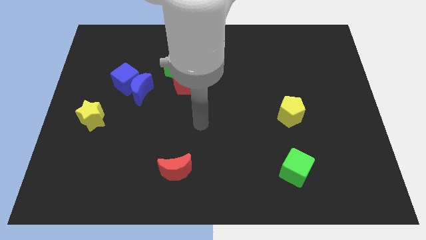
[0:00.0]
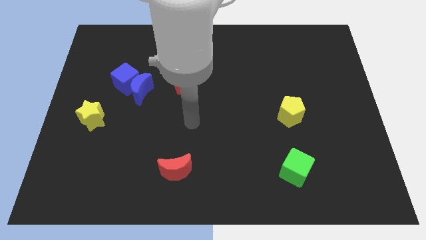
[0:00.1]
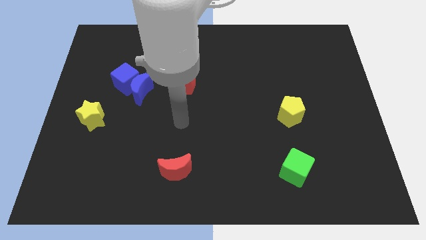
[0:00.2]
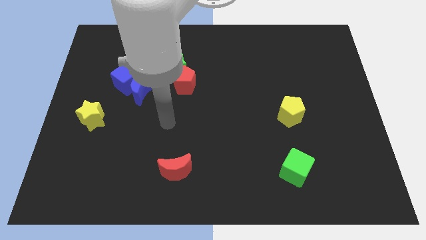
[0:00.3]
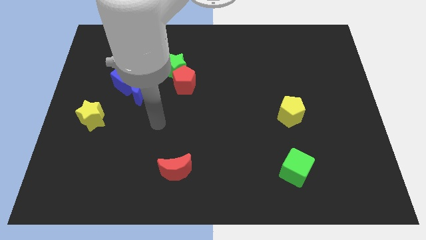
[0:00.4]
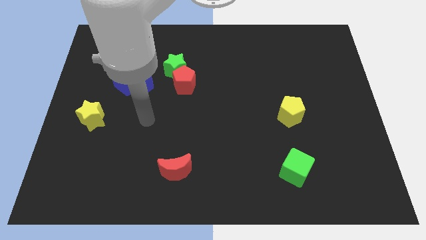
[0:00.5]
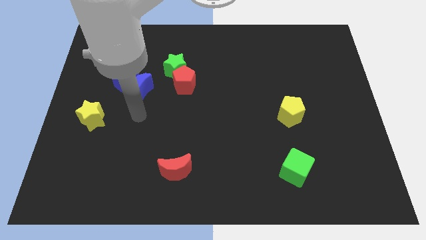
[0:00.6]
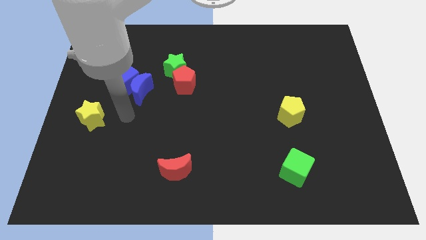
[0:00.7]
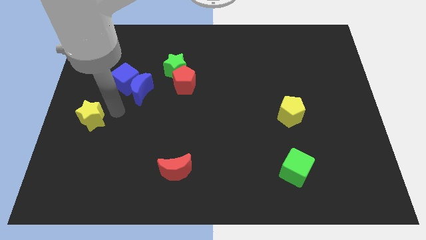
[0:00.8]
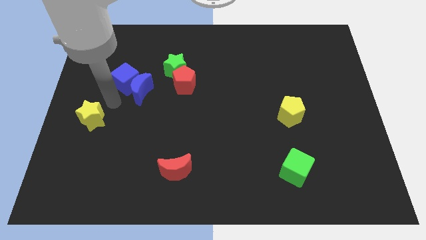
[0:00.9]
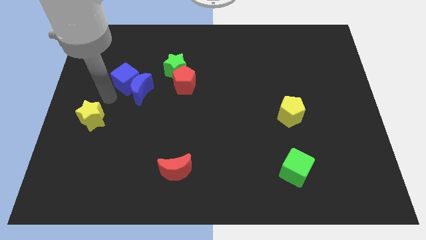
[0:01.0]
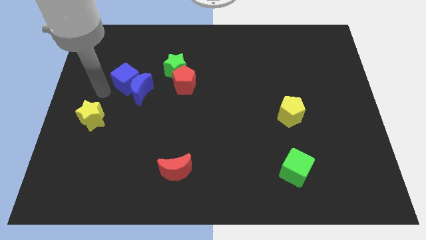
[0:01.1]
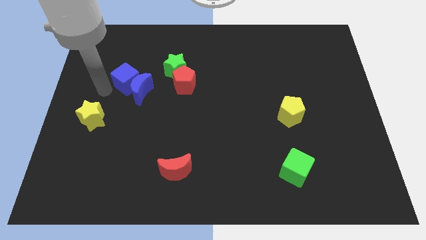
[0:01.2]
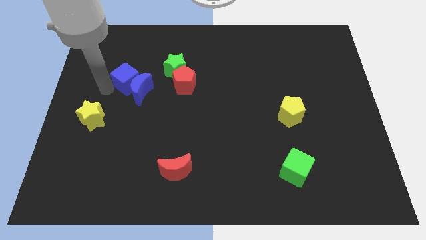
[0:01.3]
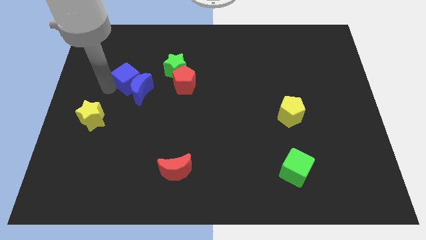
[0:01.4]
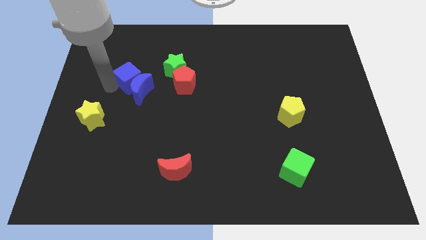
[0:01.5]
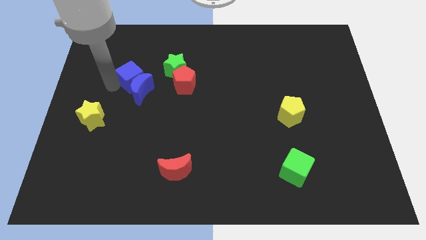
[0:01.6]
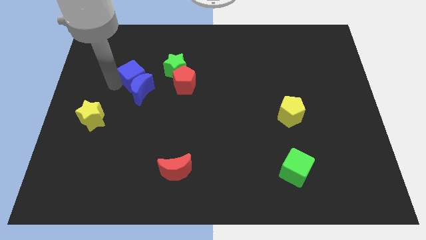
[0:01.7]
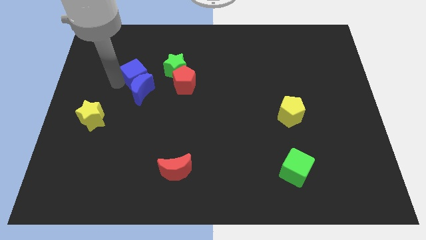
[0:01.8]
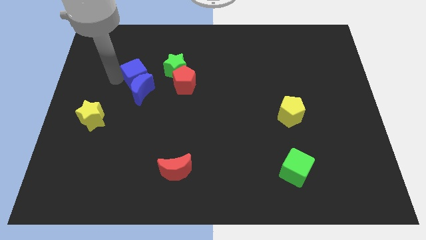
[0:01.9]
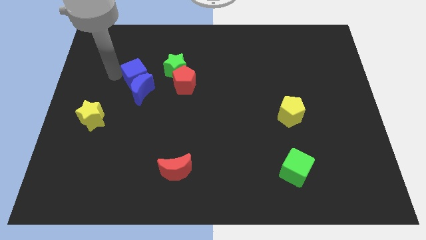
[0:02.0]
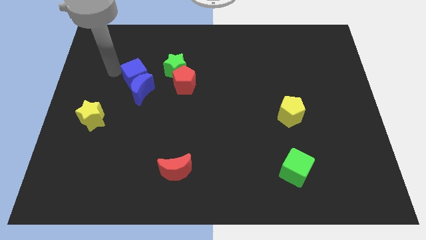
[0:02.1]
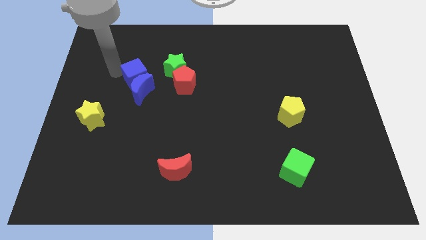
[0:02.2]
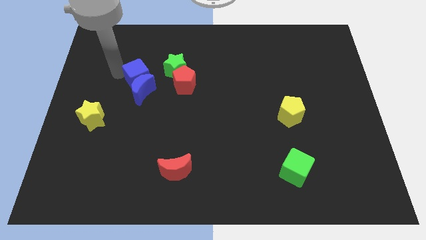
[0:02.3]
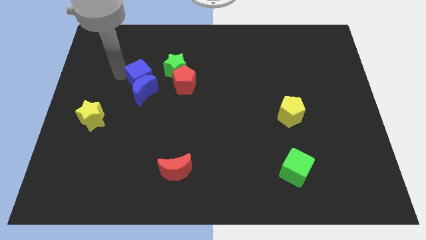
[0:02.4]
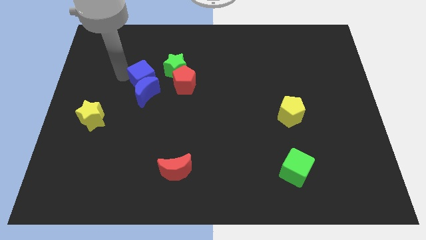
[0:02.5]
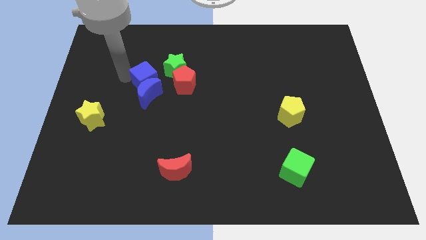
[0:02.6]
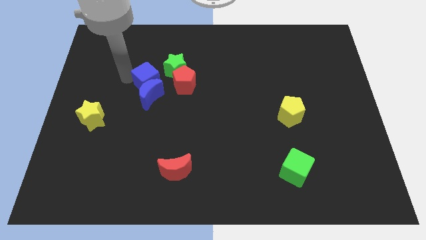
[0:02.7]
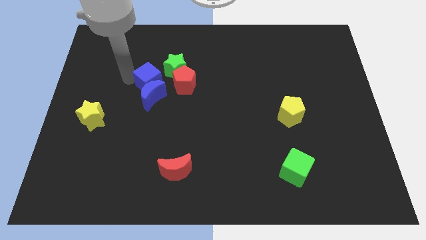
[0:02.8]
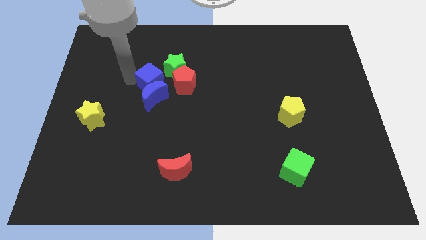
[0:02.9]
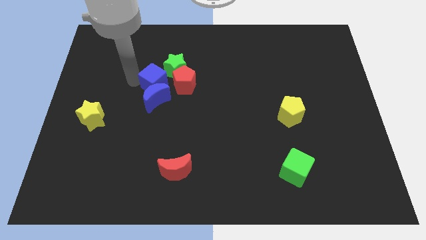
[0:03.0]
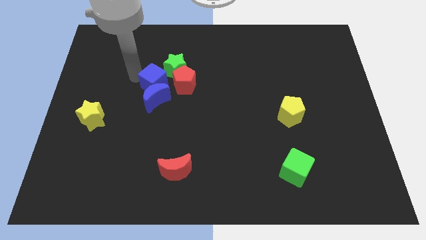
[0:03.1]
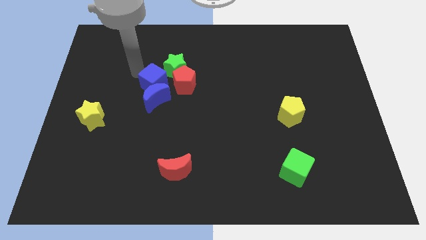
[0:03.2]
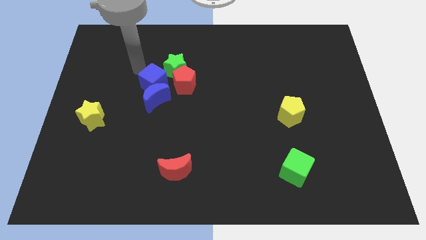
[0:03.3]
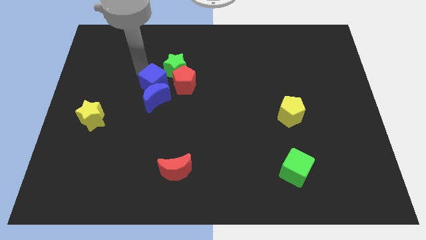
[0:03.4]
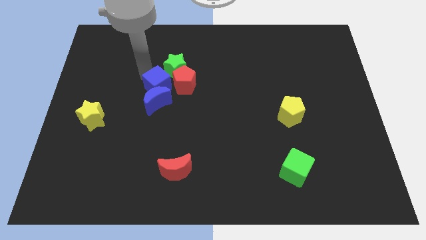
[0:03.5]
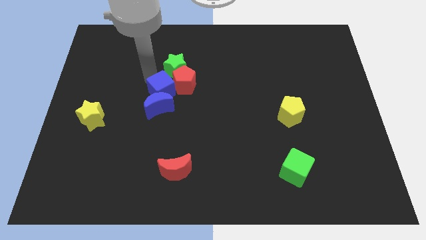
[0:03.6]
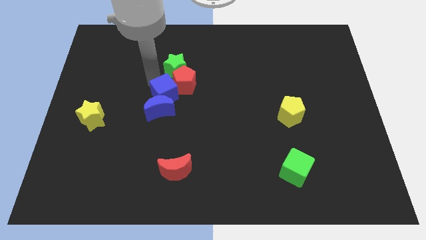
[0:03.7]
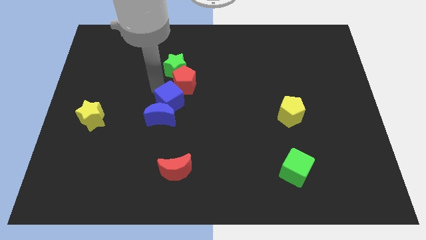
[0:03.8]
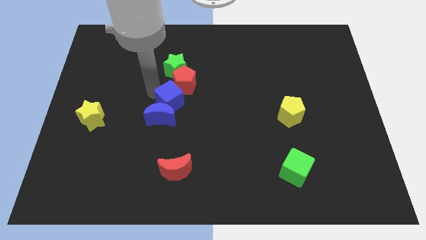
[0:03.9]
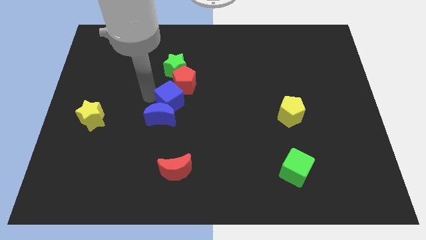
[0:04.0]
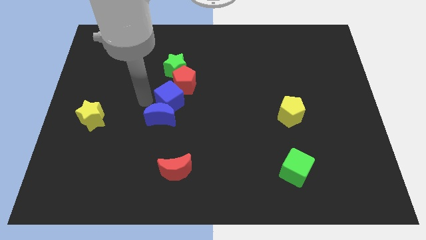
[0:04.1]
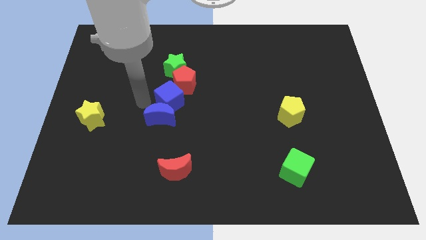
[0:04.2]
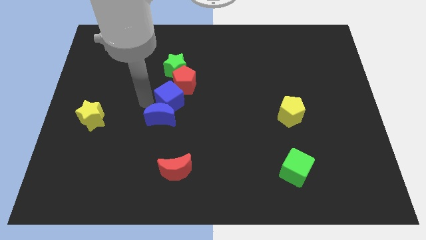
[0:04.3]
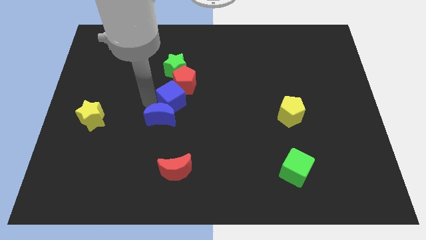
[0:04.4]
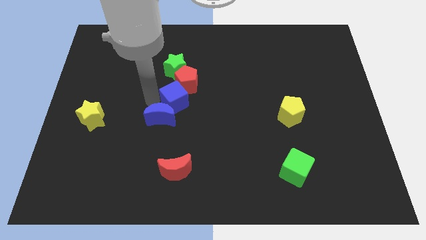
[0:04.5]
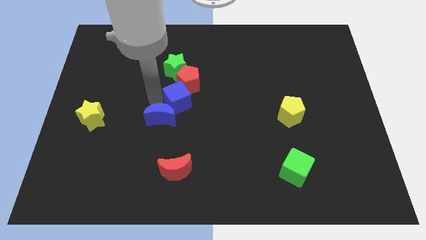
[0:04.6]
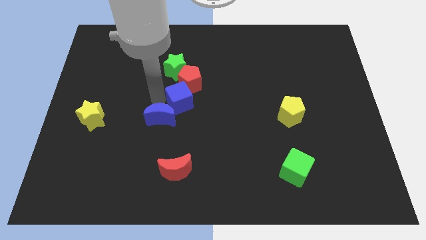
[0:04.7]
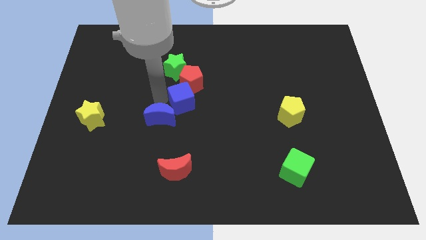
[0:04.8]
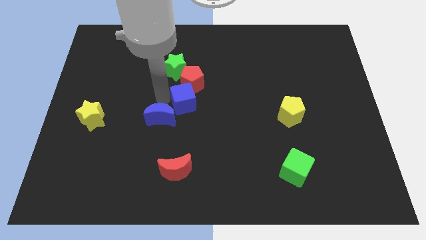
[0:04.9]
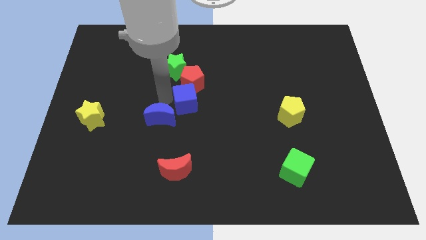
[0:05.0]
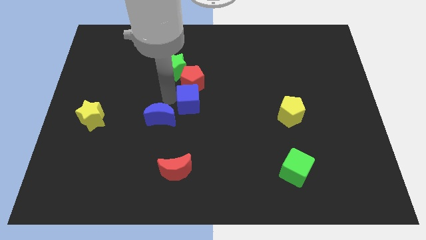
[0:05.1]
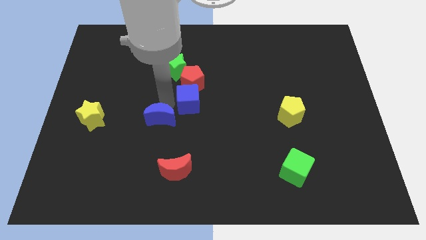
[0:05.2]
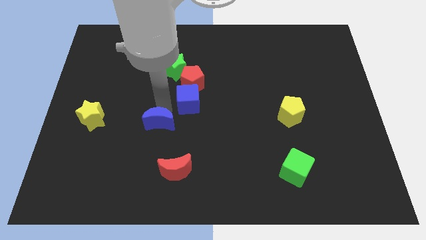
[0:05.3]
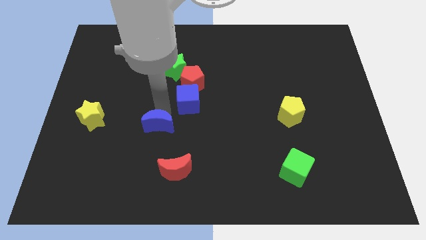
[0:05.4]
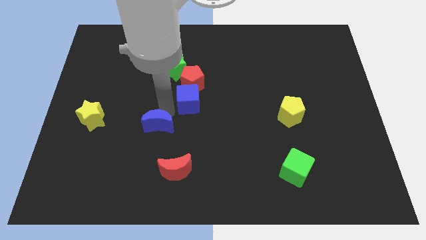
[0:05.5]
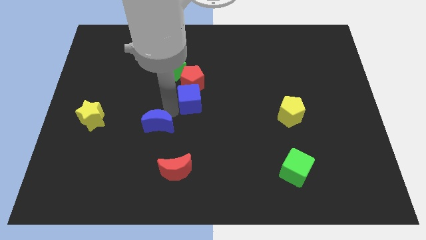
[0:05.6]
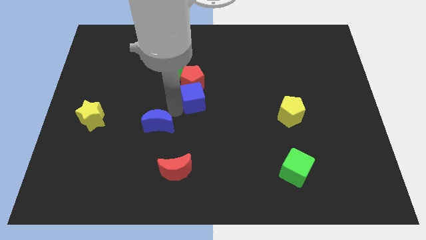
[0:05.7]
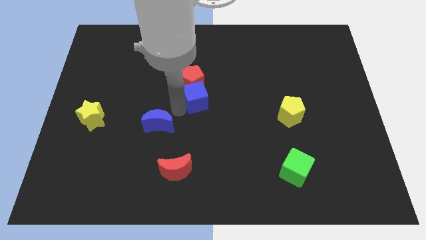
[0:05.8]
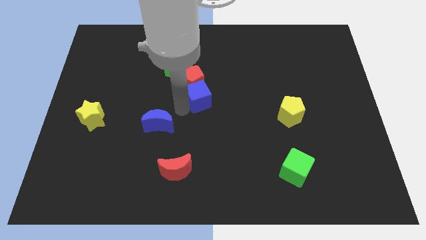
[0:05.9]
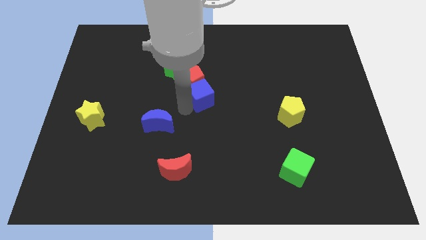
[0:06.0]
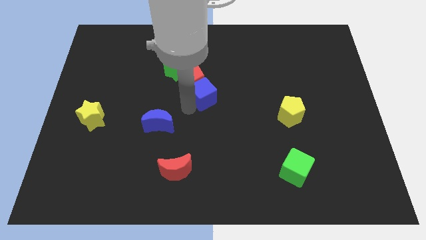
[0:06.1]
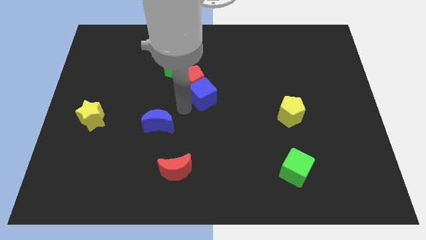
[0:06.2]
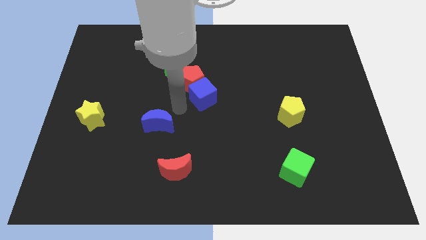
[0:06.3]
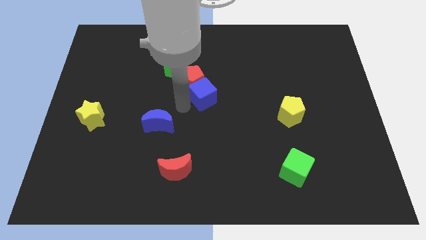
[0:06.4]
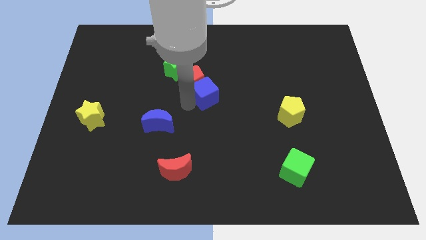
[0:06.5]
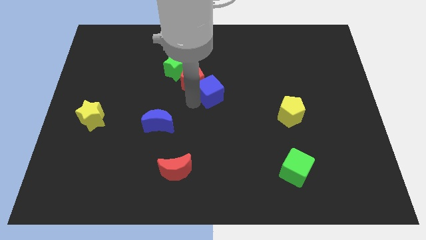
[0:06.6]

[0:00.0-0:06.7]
move the blue cube right

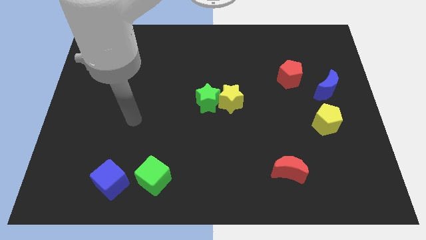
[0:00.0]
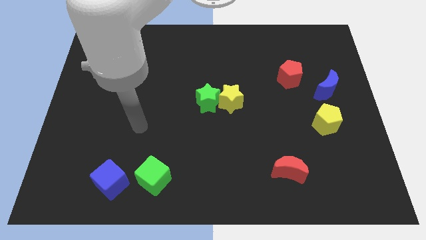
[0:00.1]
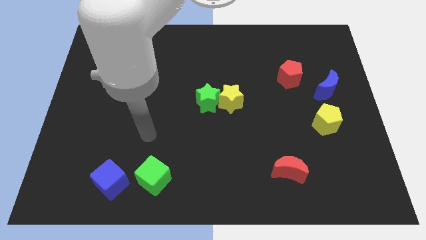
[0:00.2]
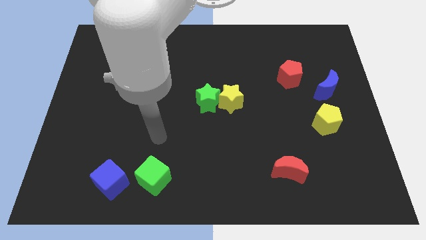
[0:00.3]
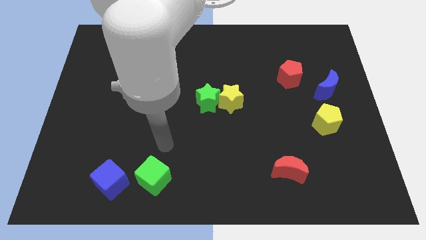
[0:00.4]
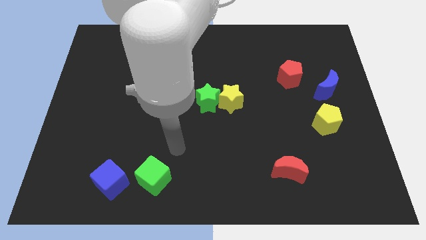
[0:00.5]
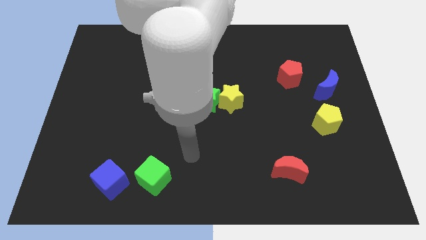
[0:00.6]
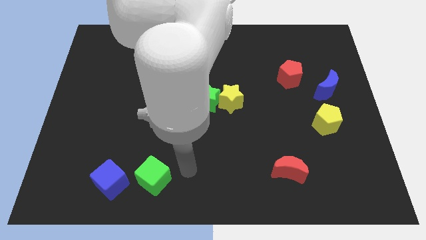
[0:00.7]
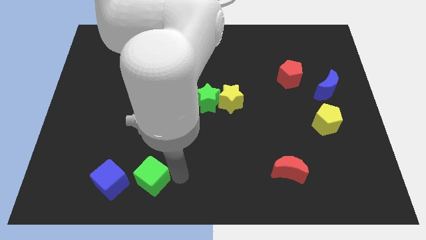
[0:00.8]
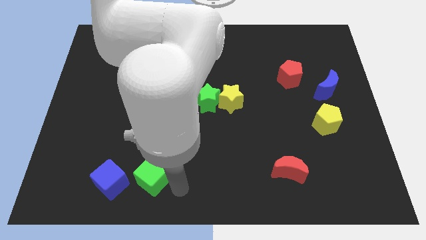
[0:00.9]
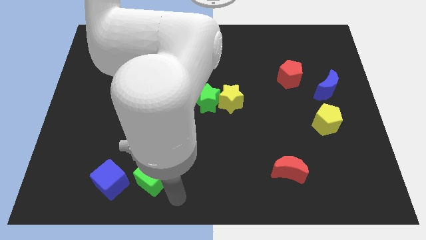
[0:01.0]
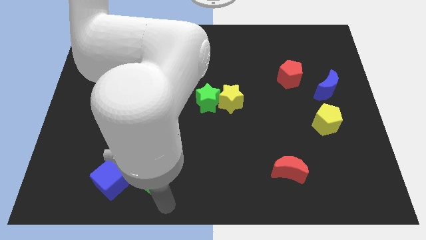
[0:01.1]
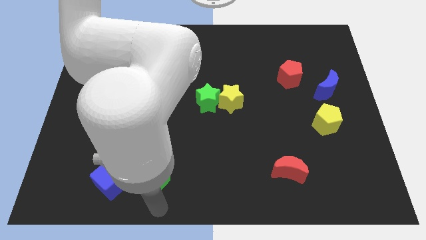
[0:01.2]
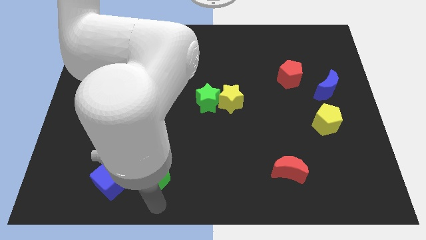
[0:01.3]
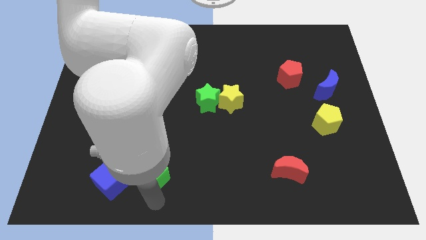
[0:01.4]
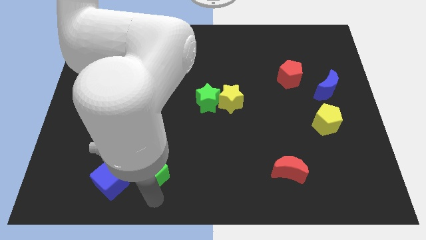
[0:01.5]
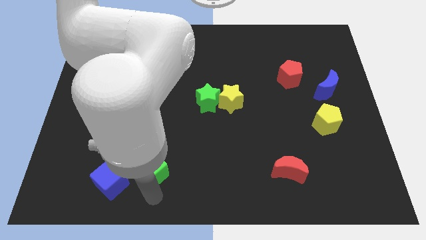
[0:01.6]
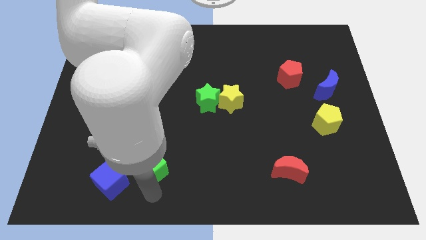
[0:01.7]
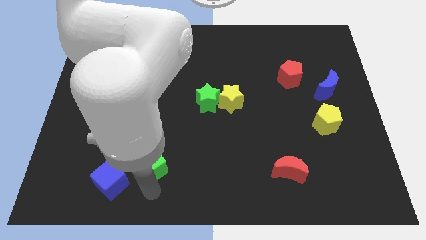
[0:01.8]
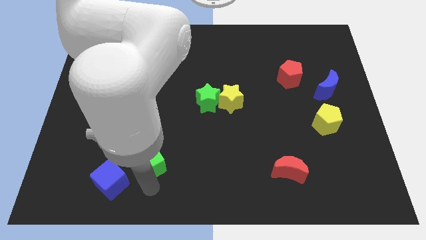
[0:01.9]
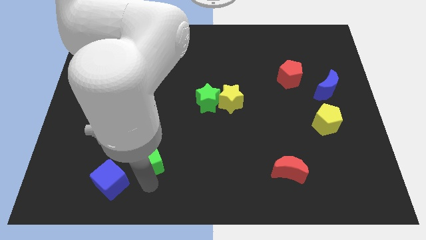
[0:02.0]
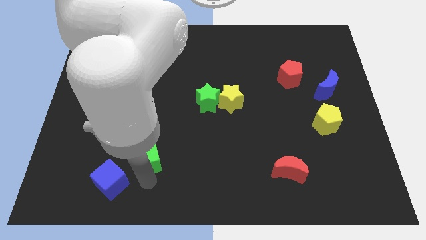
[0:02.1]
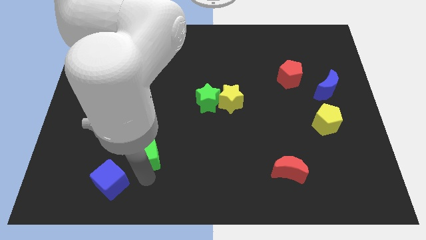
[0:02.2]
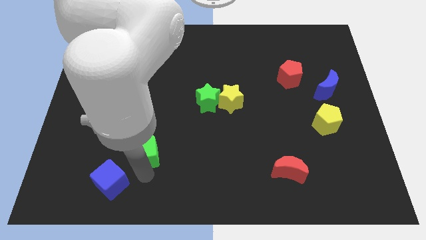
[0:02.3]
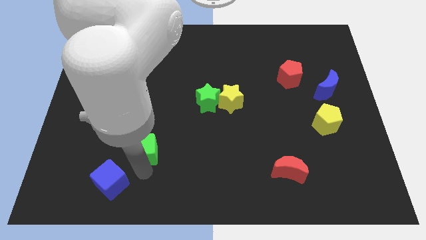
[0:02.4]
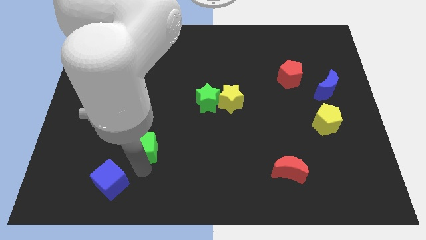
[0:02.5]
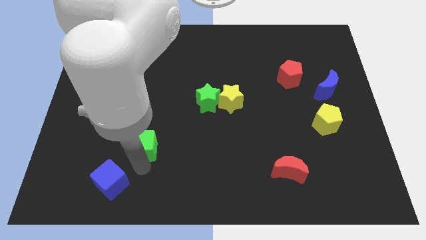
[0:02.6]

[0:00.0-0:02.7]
move the green cube upwards a little
